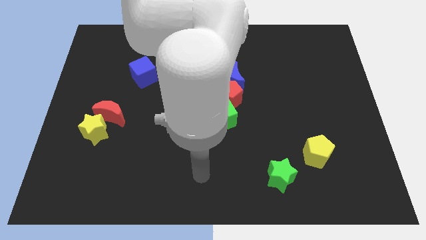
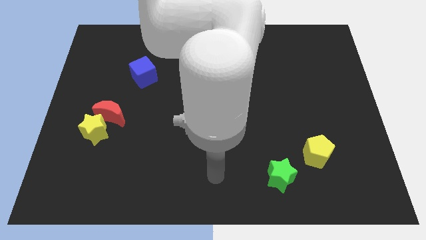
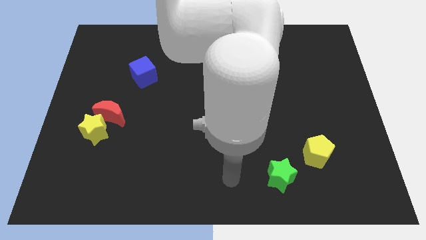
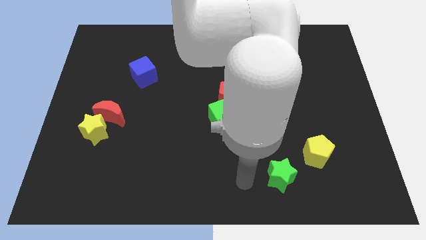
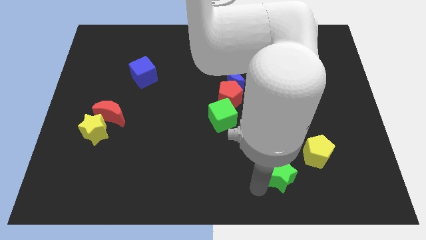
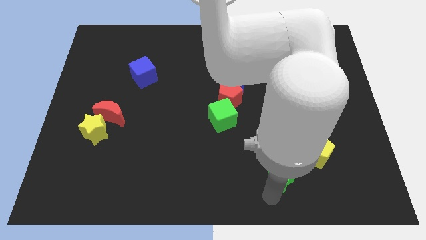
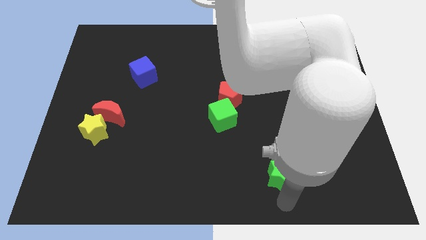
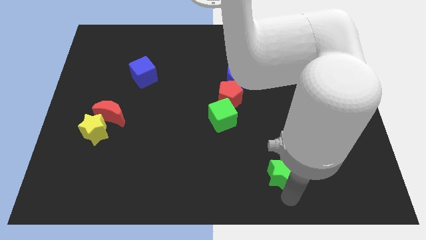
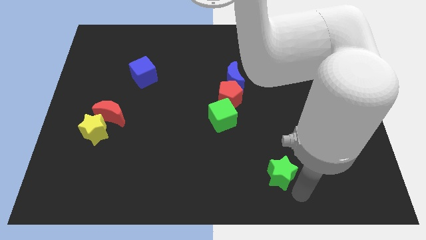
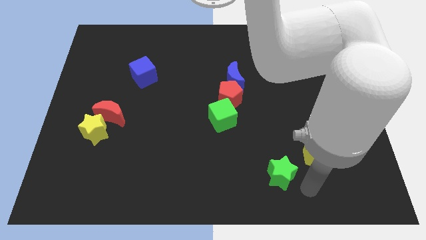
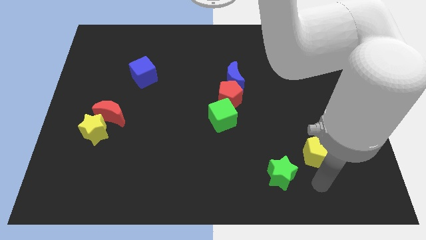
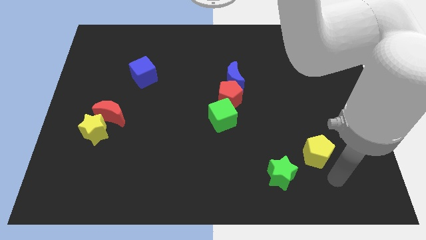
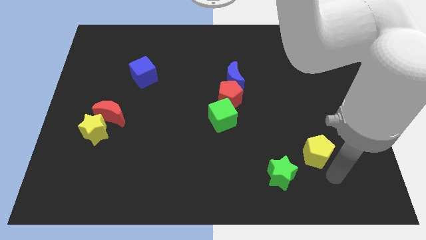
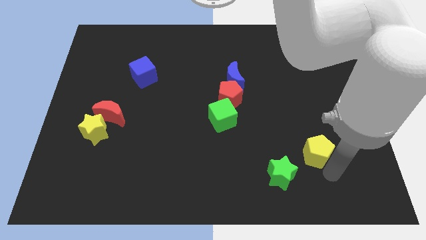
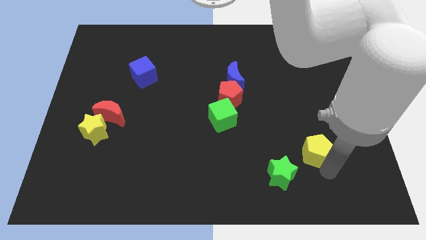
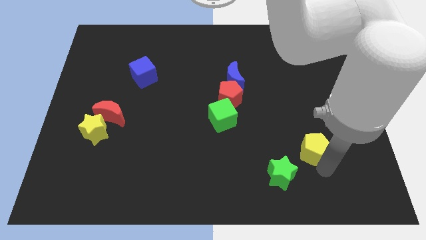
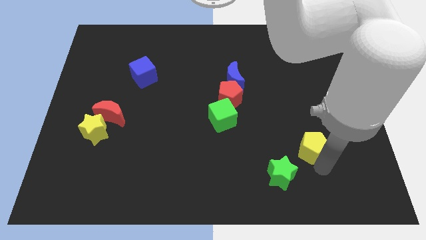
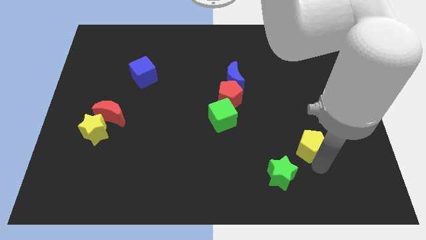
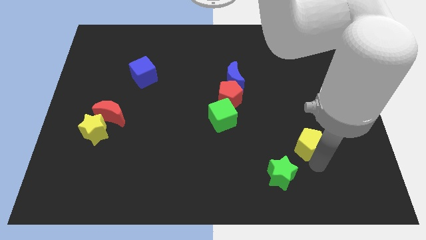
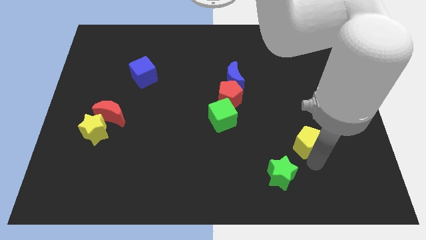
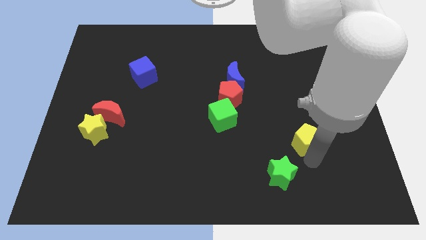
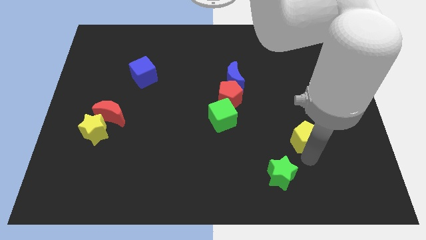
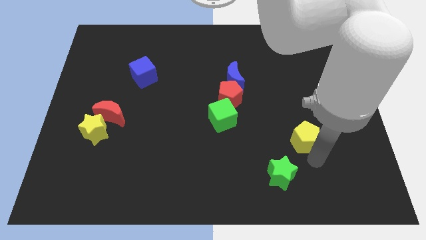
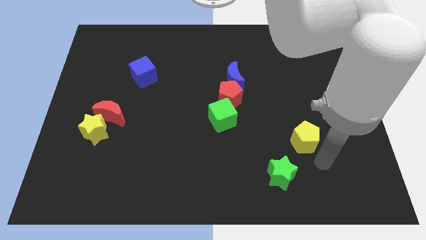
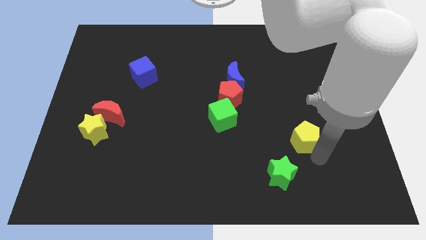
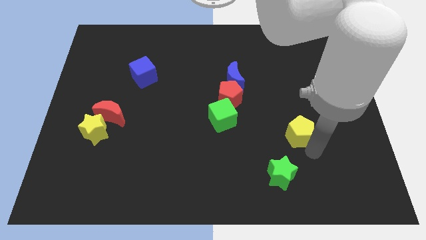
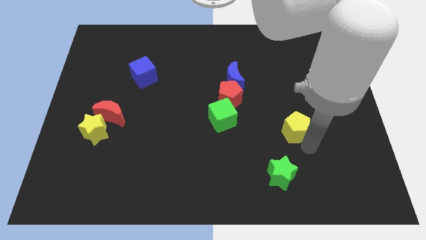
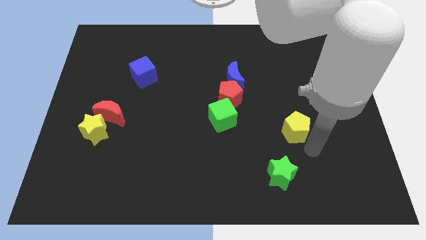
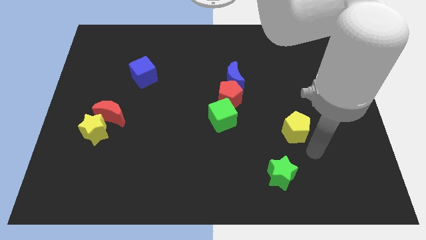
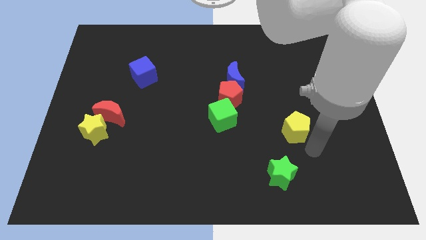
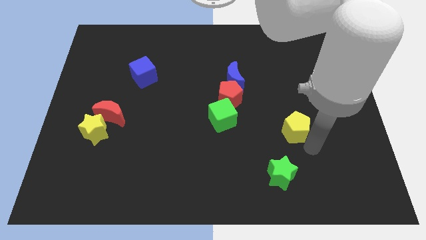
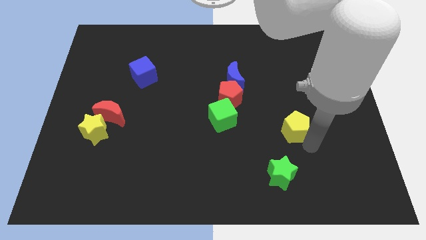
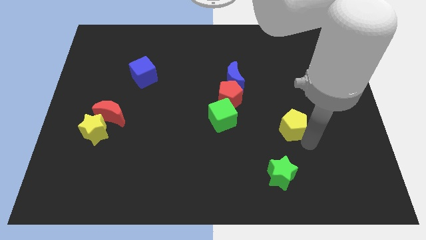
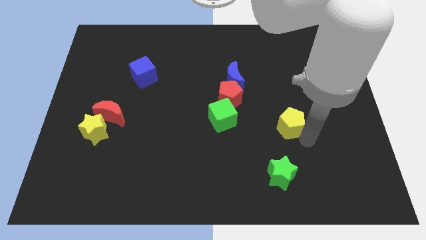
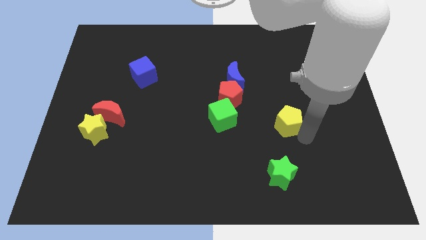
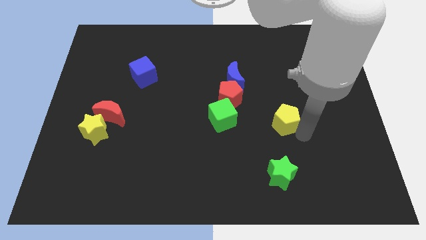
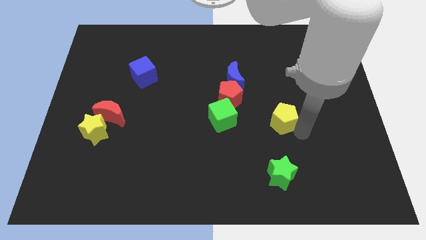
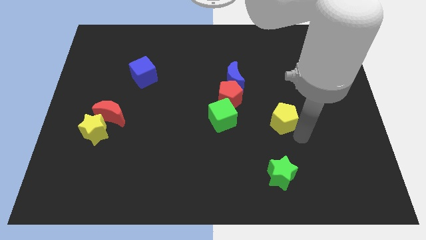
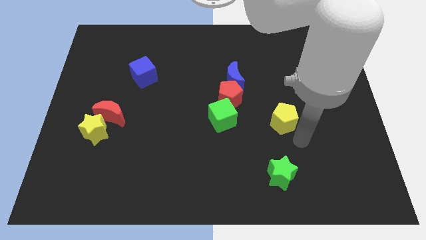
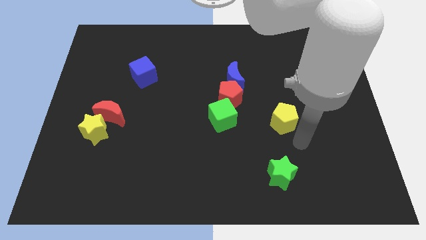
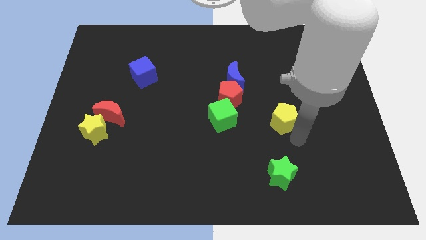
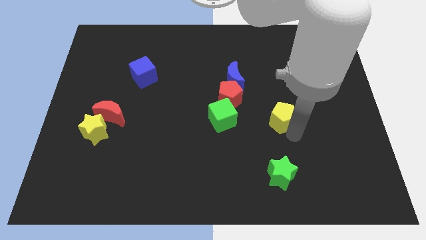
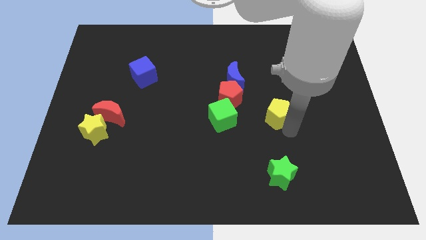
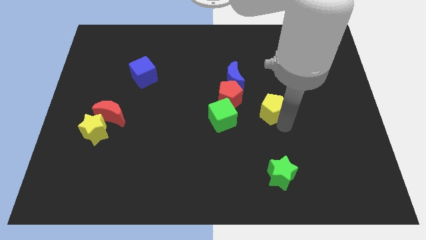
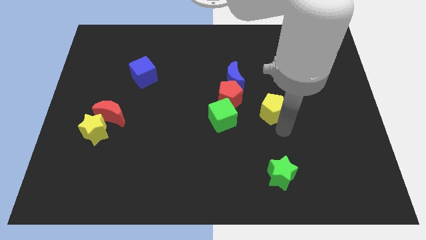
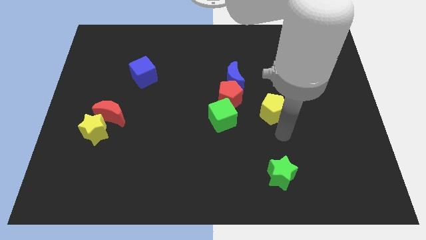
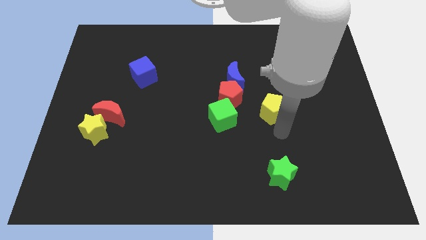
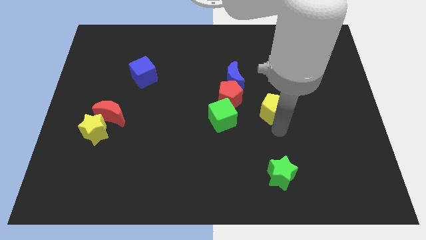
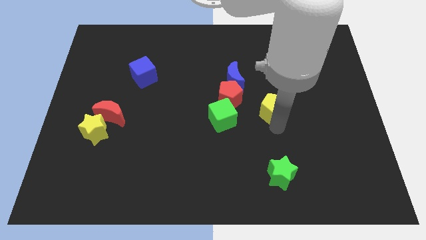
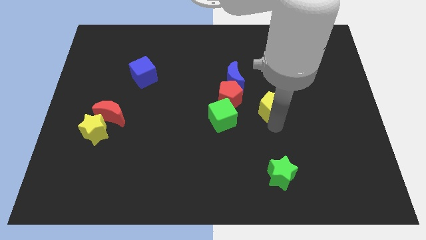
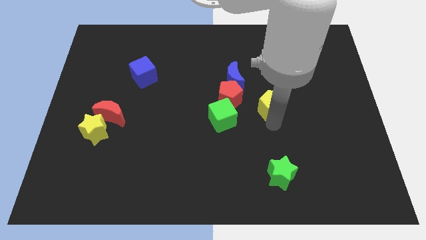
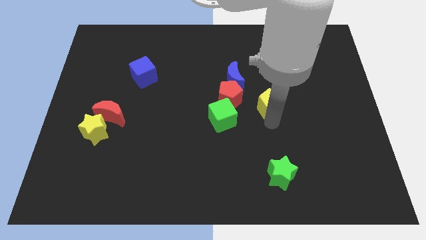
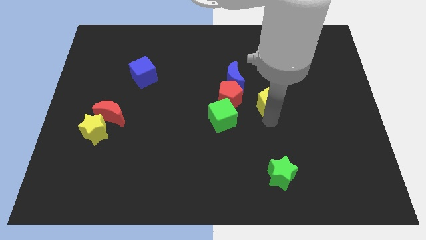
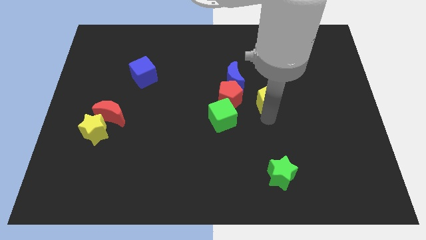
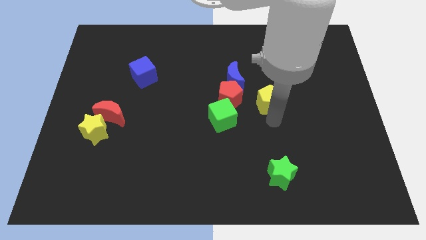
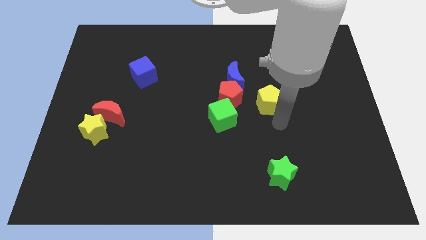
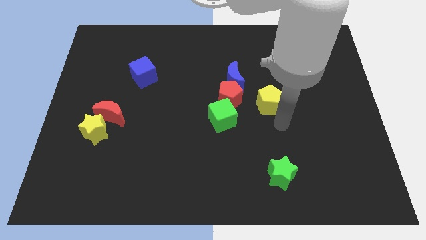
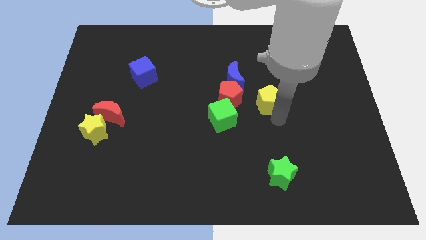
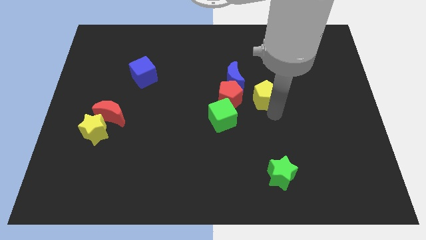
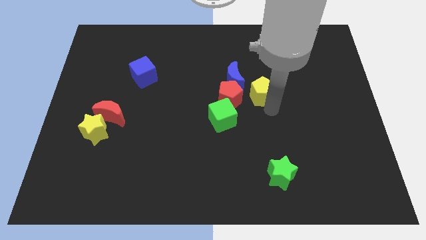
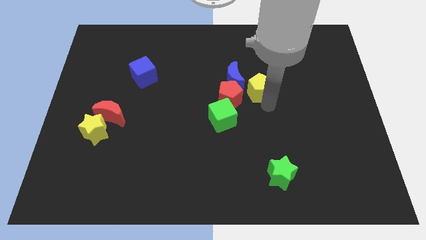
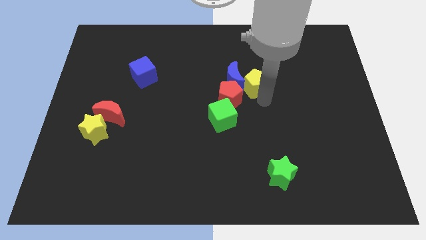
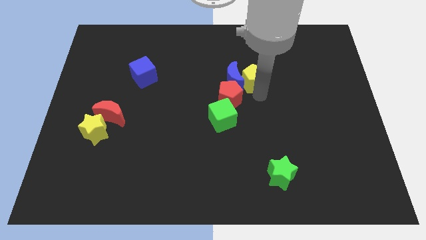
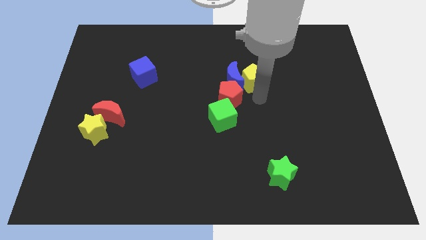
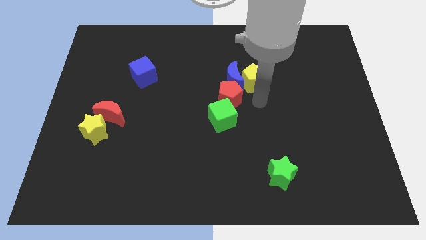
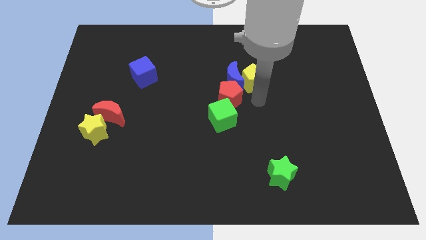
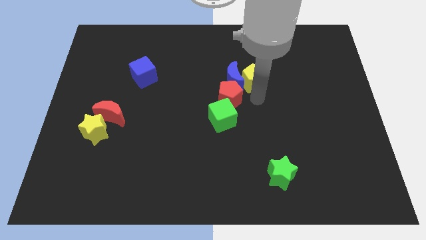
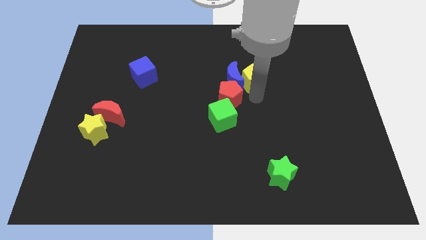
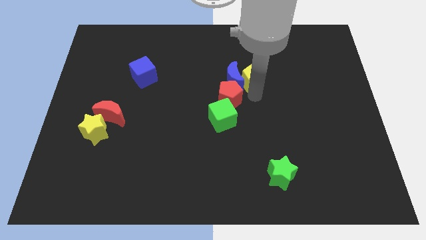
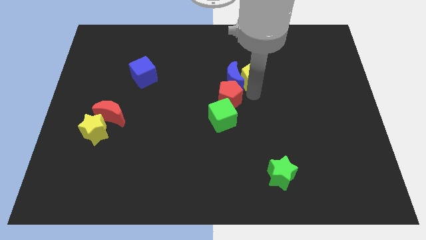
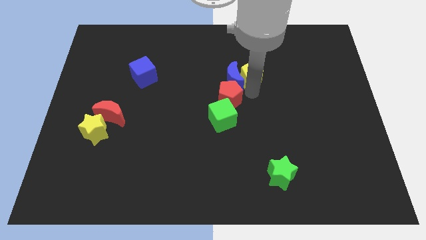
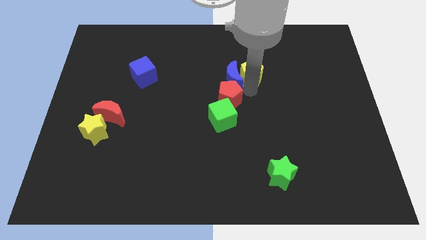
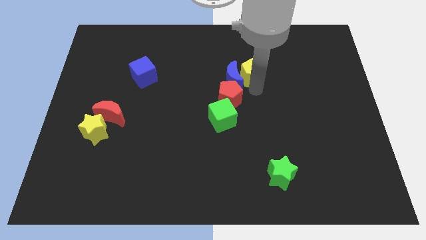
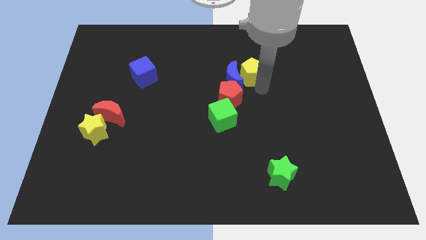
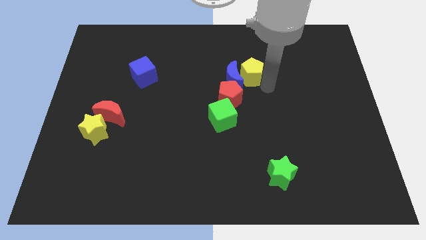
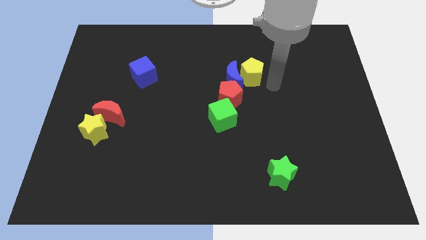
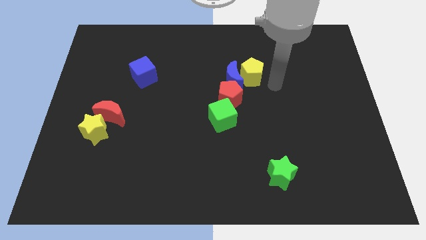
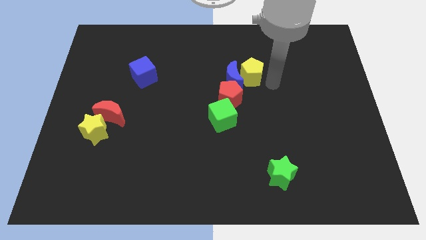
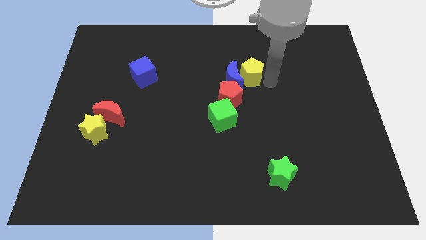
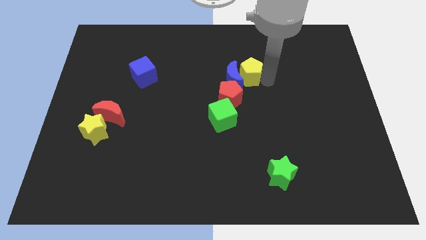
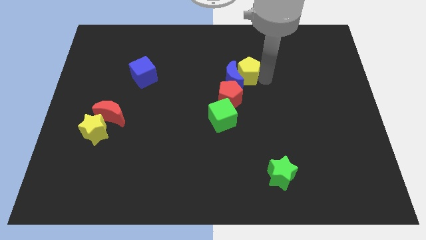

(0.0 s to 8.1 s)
move the yellow pentagon to the top of the red pentagon
